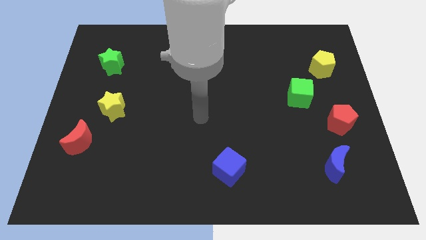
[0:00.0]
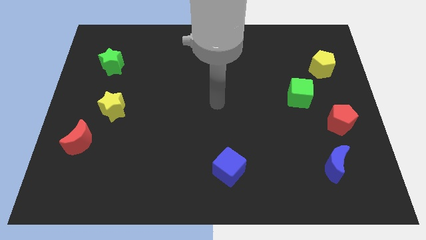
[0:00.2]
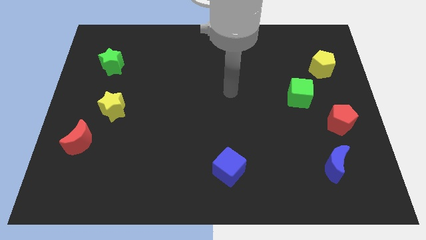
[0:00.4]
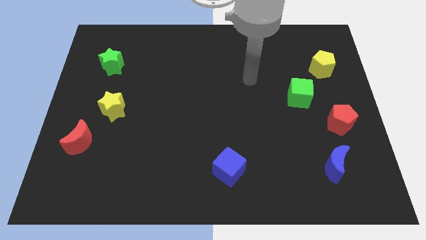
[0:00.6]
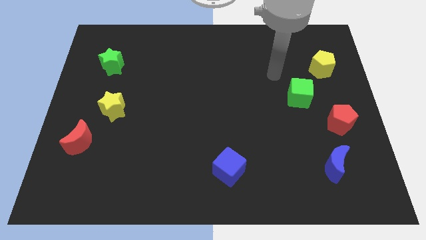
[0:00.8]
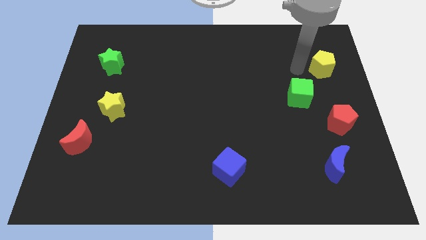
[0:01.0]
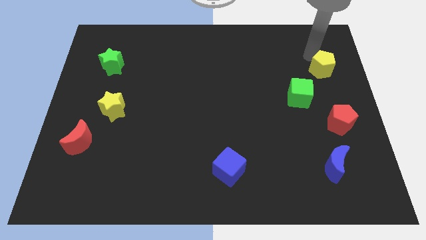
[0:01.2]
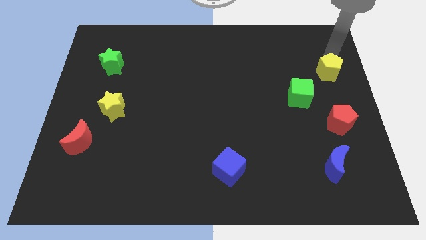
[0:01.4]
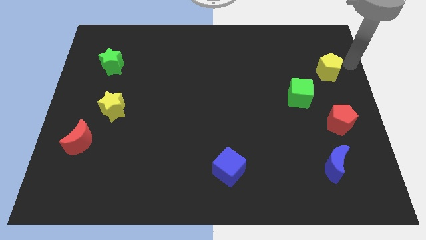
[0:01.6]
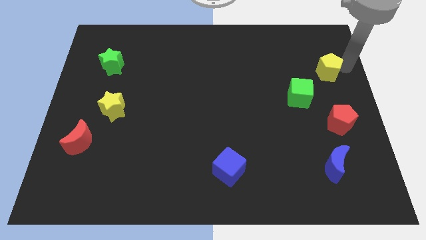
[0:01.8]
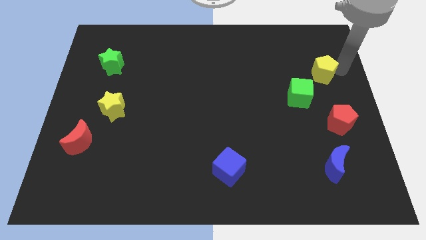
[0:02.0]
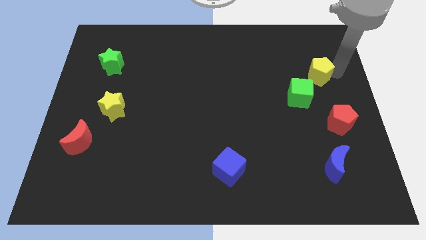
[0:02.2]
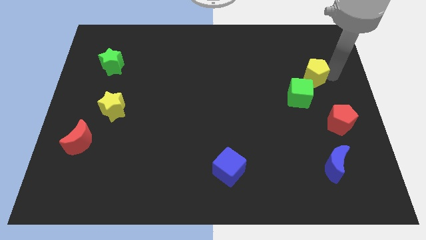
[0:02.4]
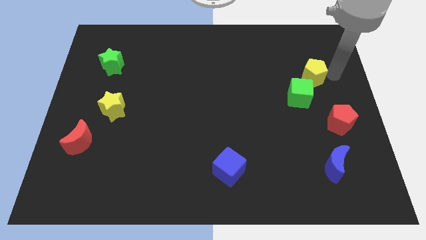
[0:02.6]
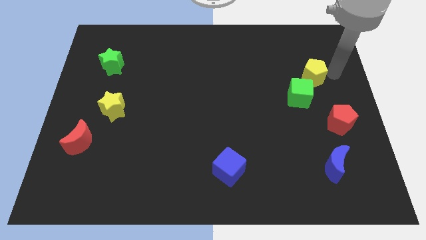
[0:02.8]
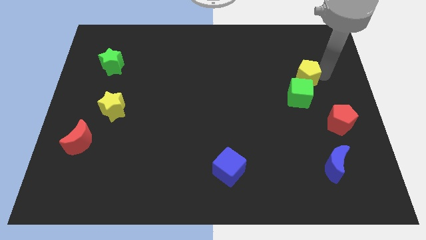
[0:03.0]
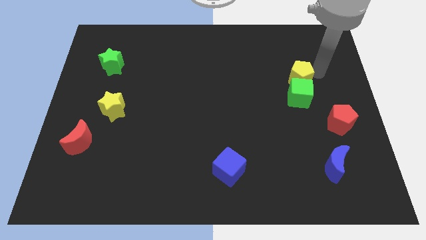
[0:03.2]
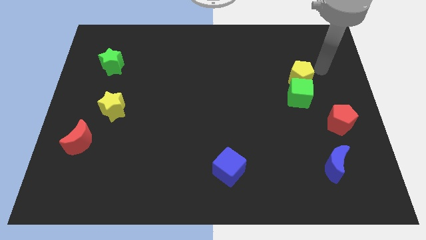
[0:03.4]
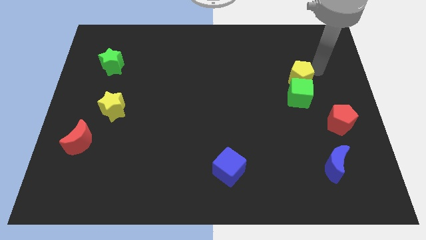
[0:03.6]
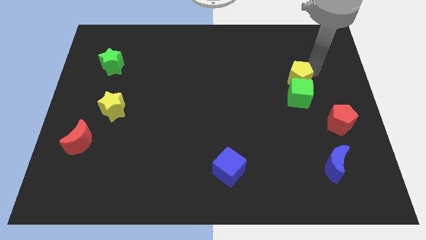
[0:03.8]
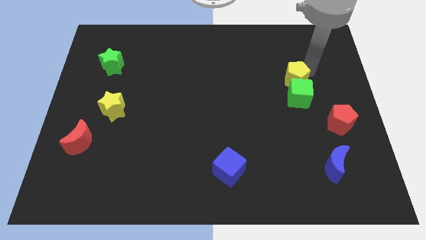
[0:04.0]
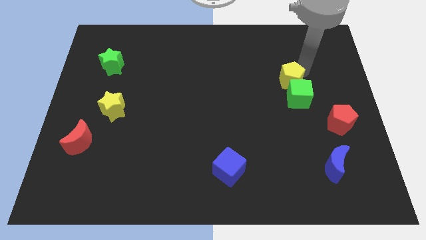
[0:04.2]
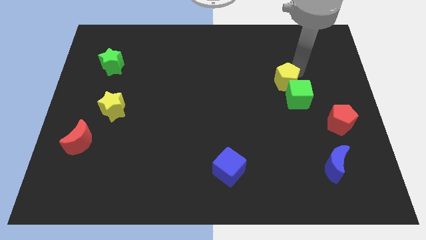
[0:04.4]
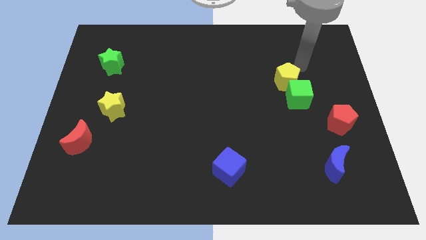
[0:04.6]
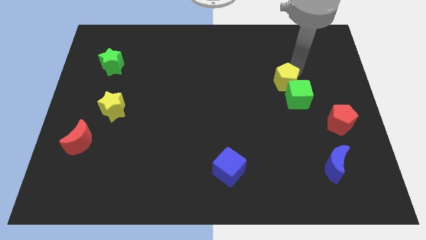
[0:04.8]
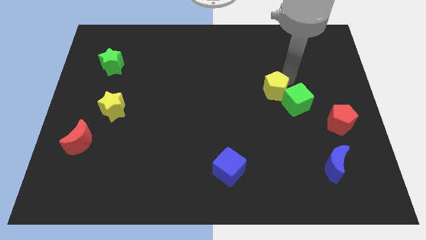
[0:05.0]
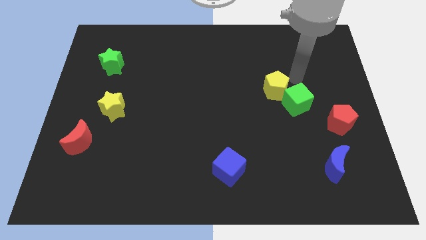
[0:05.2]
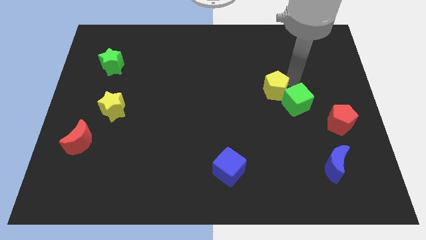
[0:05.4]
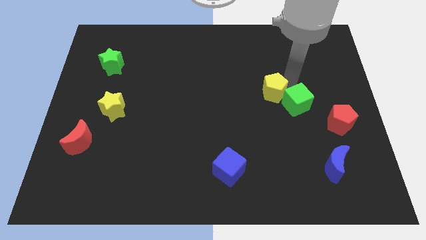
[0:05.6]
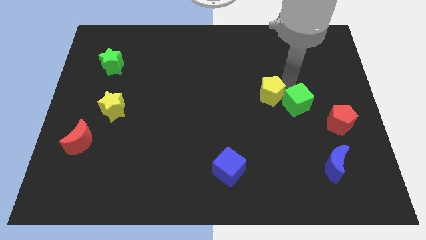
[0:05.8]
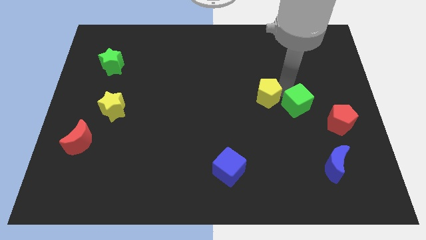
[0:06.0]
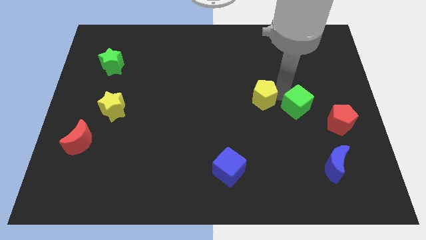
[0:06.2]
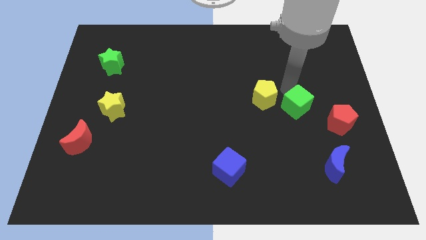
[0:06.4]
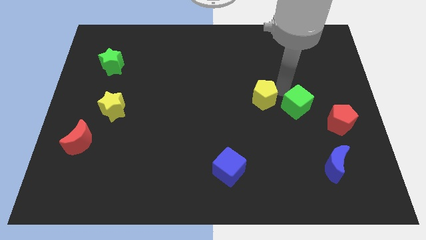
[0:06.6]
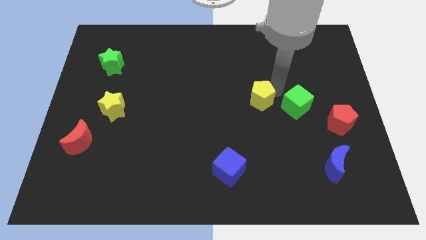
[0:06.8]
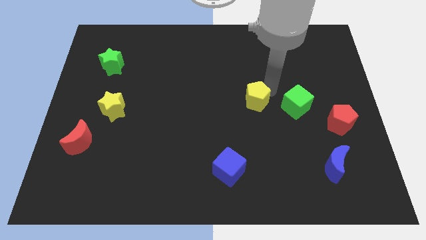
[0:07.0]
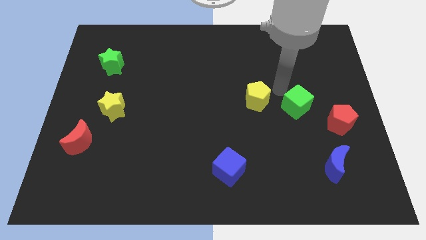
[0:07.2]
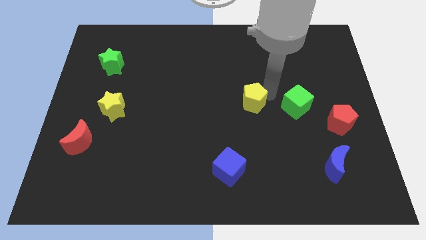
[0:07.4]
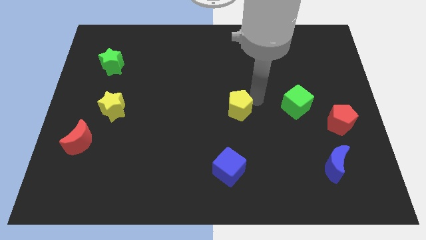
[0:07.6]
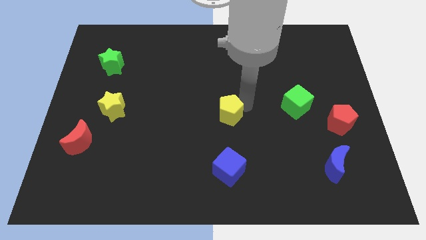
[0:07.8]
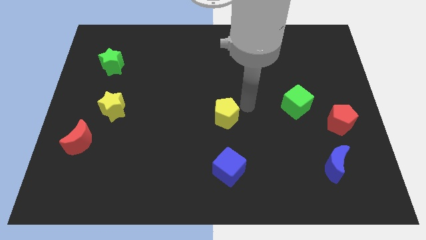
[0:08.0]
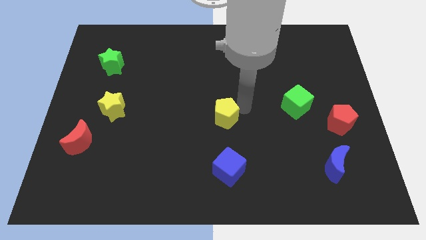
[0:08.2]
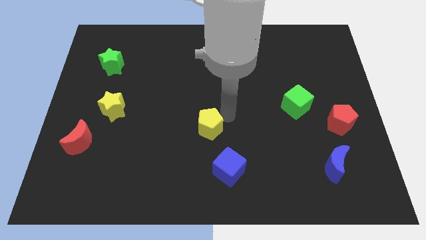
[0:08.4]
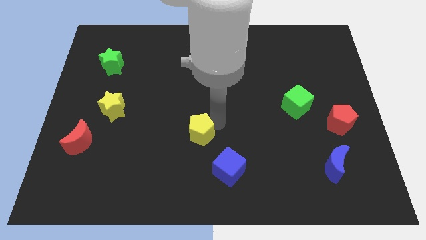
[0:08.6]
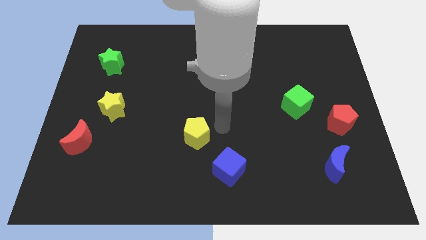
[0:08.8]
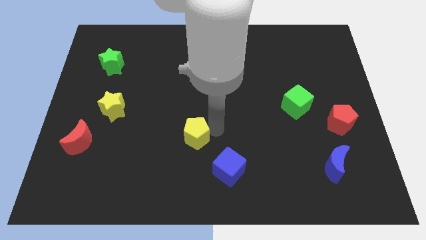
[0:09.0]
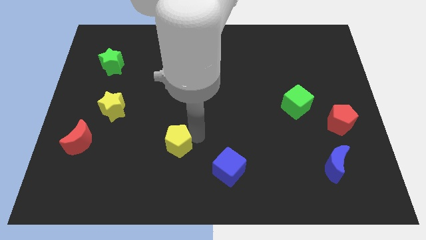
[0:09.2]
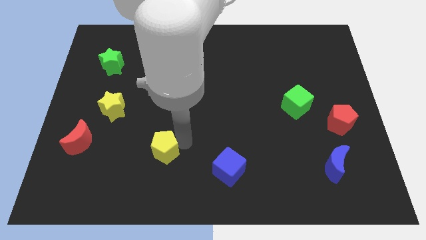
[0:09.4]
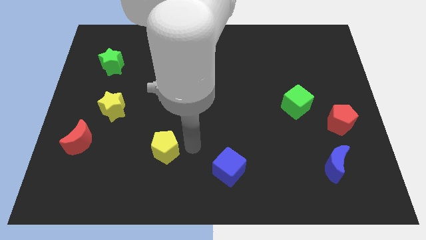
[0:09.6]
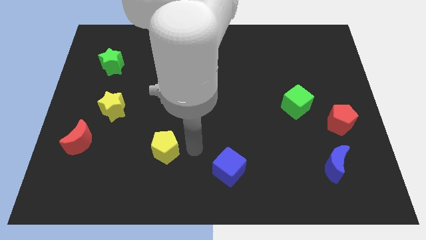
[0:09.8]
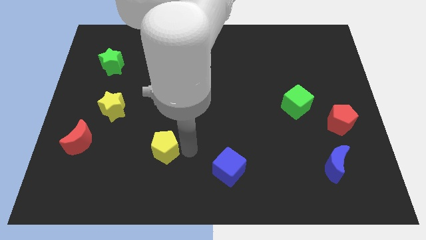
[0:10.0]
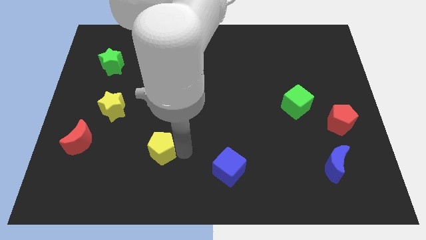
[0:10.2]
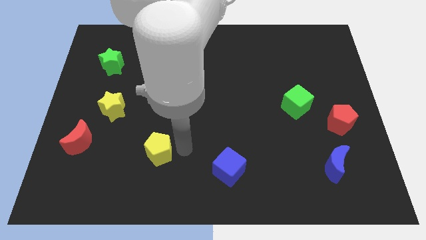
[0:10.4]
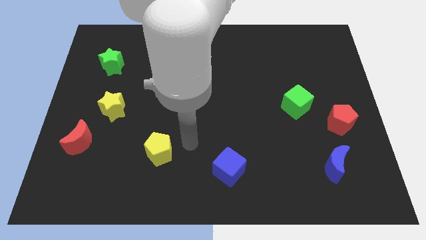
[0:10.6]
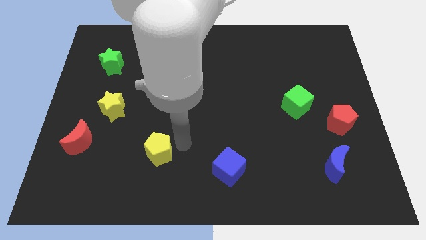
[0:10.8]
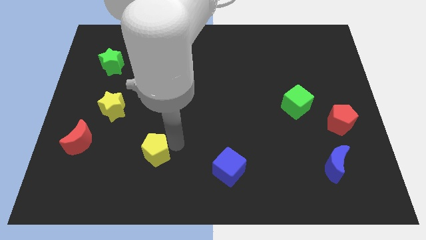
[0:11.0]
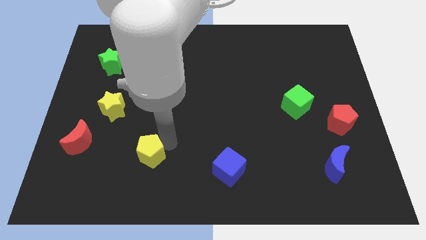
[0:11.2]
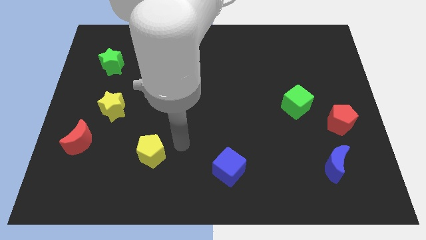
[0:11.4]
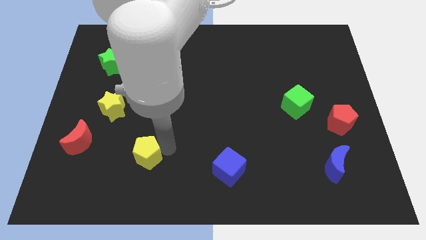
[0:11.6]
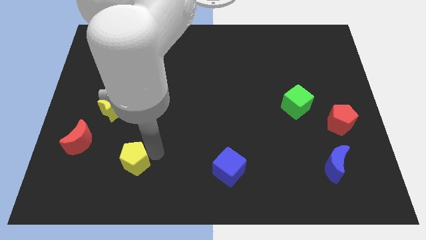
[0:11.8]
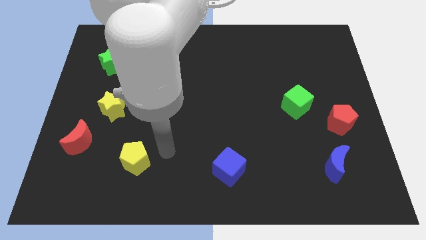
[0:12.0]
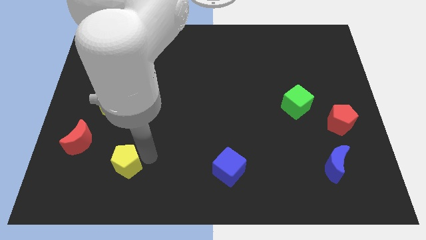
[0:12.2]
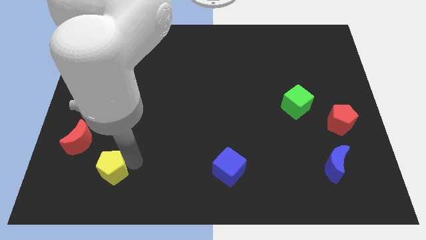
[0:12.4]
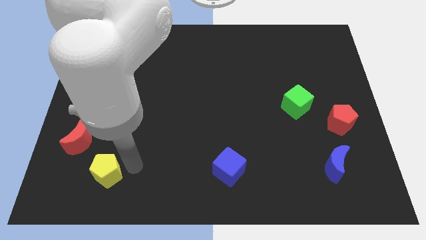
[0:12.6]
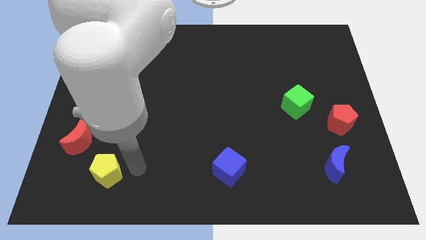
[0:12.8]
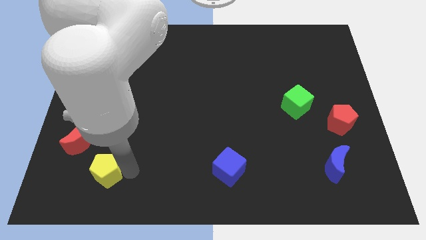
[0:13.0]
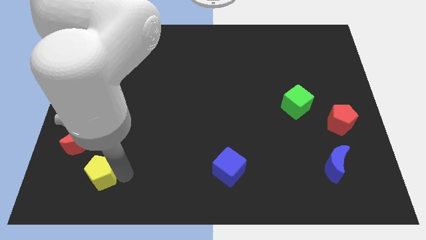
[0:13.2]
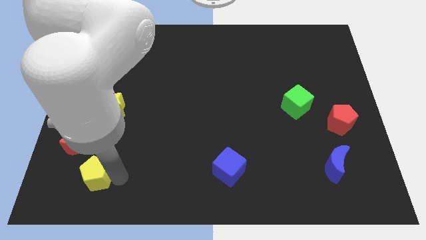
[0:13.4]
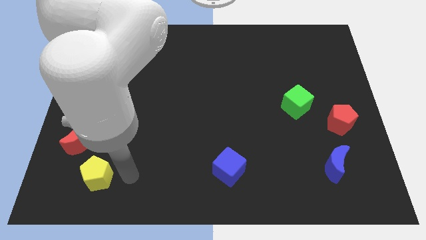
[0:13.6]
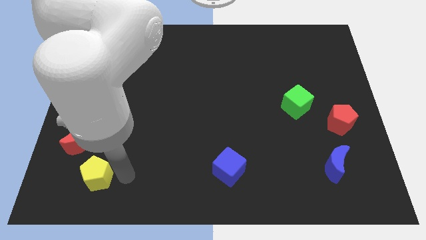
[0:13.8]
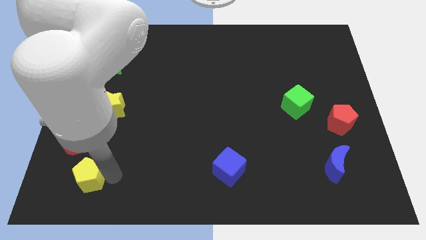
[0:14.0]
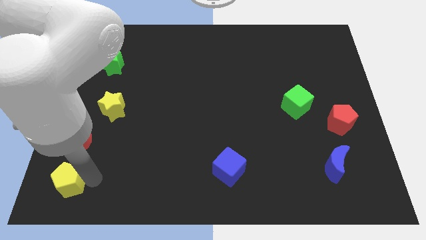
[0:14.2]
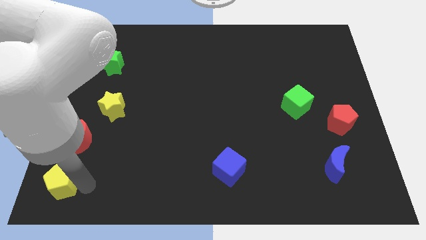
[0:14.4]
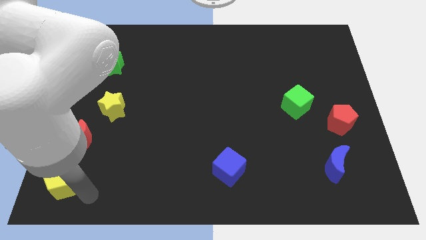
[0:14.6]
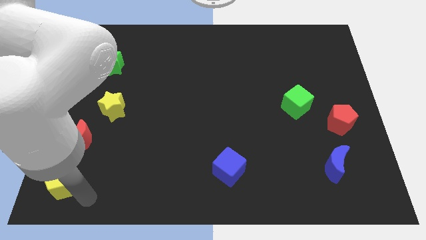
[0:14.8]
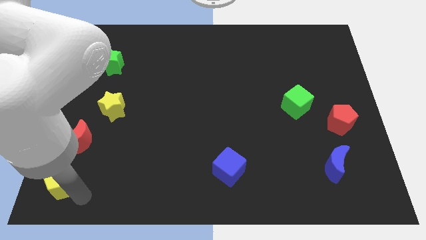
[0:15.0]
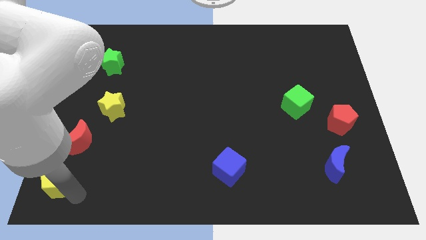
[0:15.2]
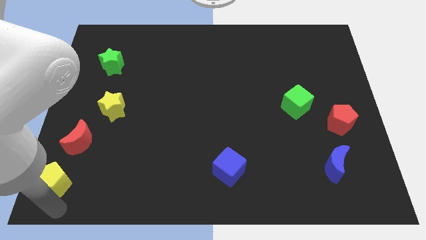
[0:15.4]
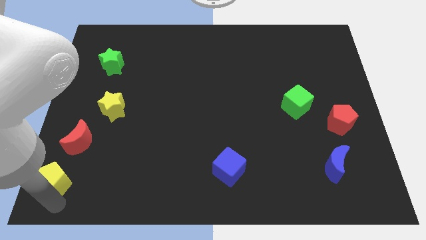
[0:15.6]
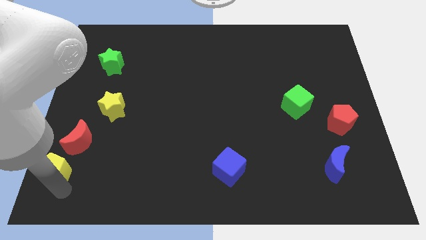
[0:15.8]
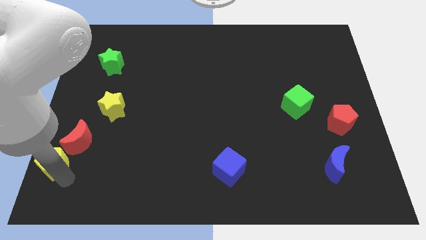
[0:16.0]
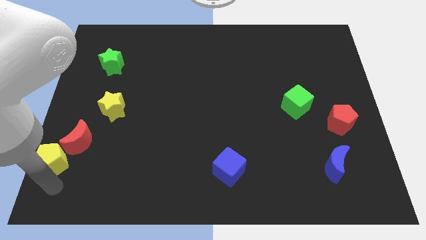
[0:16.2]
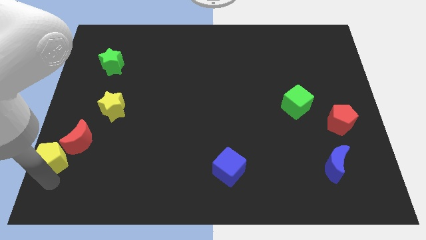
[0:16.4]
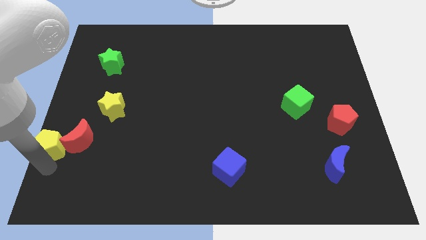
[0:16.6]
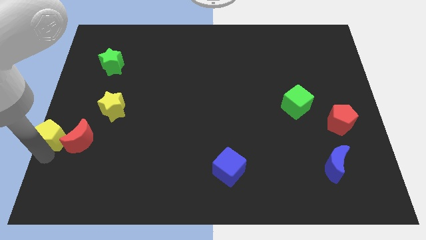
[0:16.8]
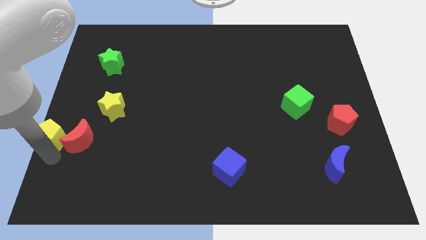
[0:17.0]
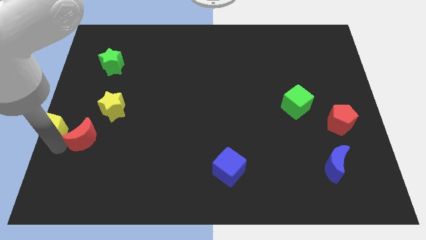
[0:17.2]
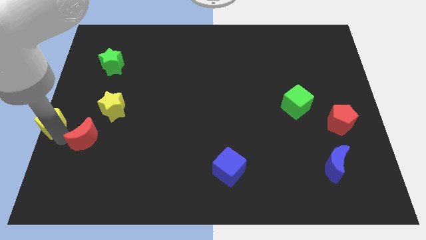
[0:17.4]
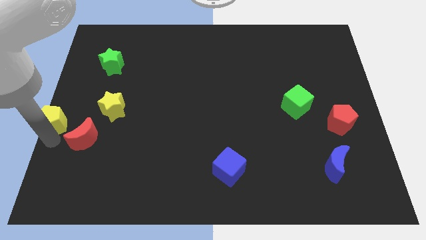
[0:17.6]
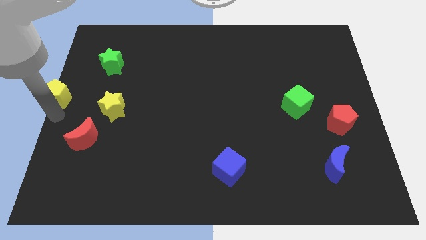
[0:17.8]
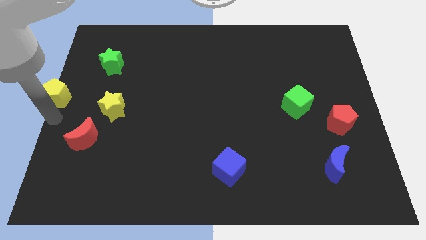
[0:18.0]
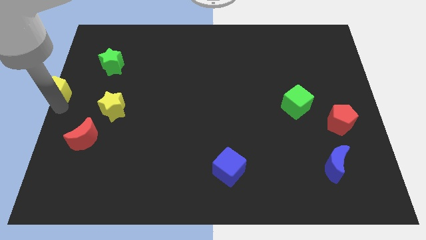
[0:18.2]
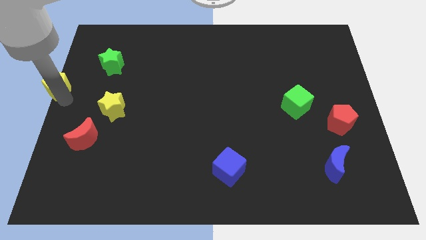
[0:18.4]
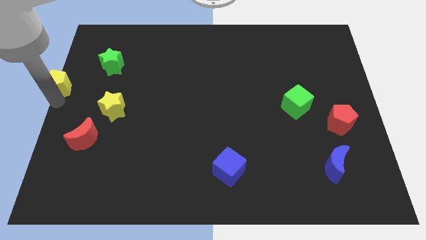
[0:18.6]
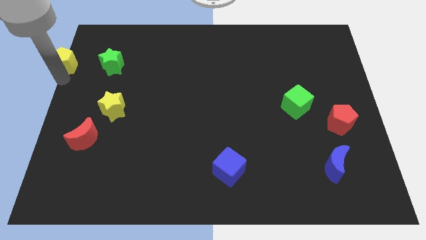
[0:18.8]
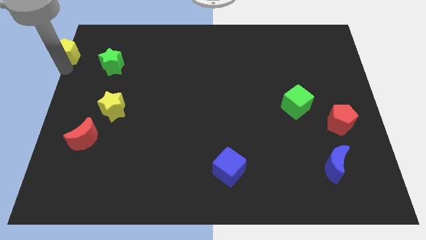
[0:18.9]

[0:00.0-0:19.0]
put the yellow pentagon to the top left
